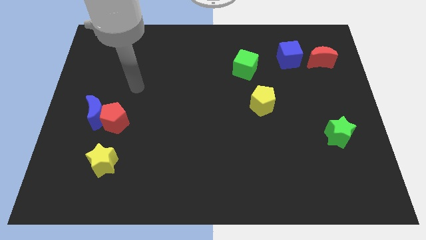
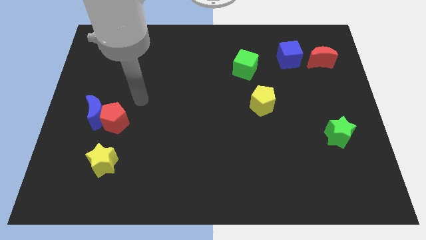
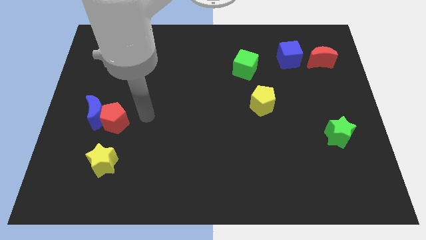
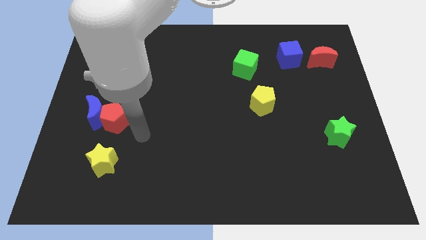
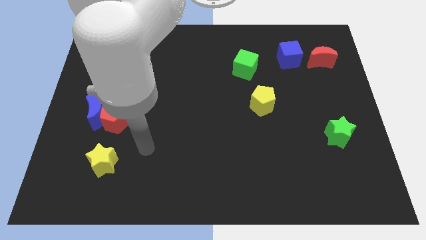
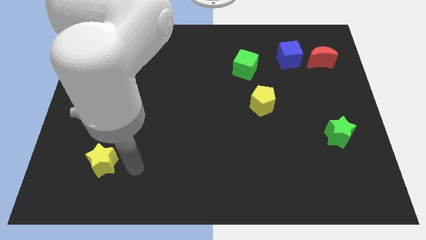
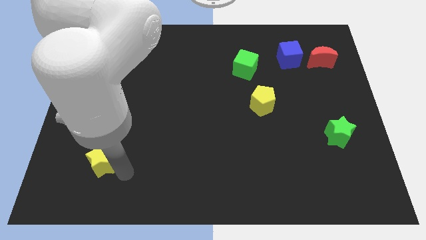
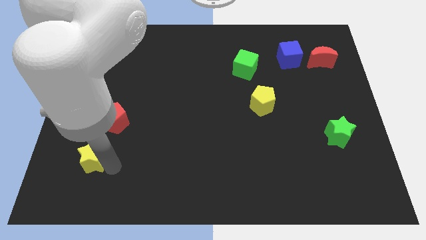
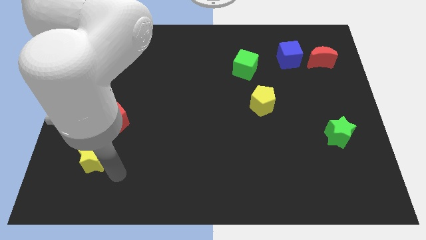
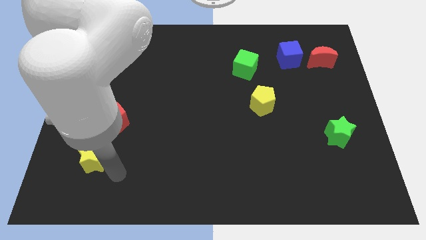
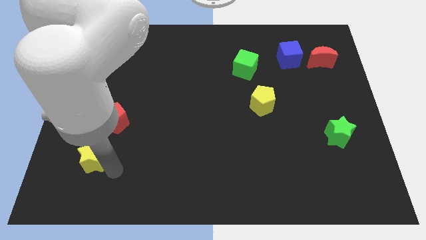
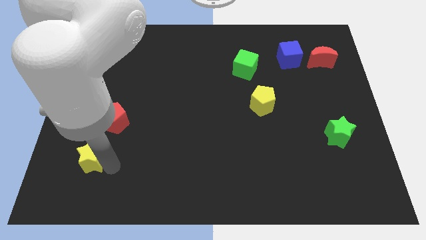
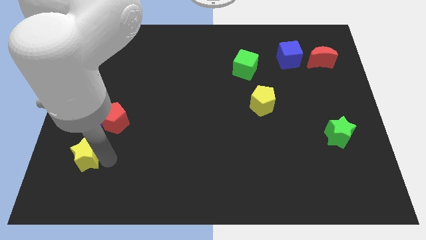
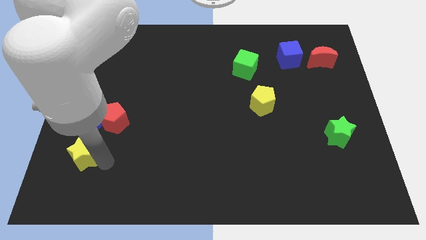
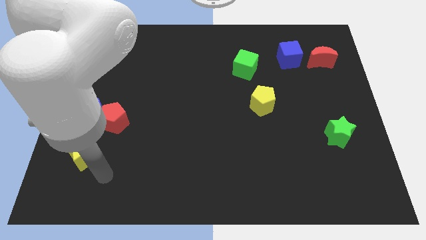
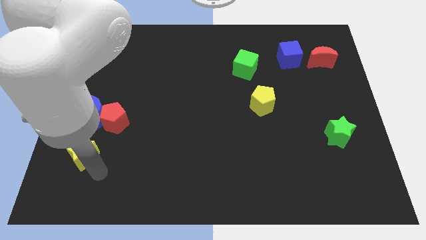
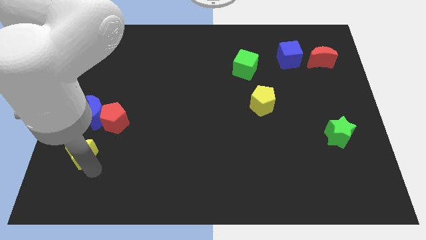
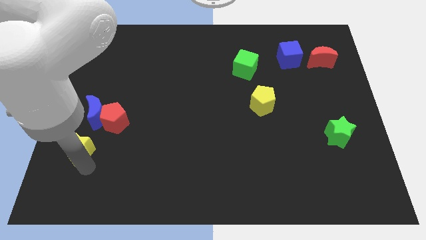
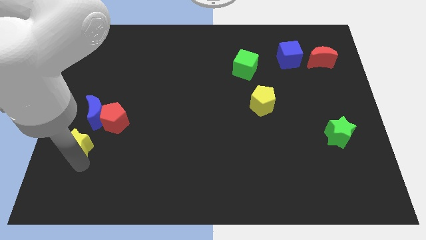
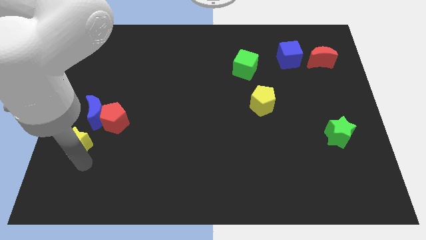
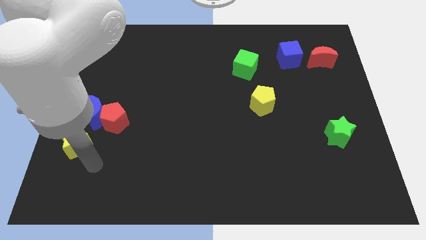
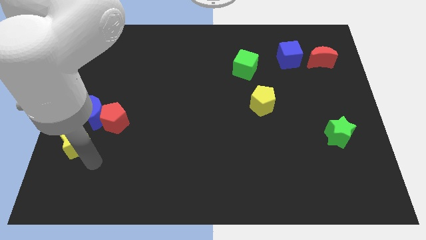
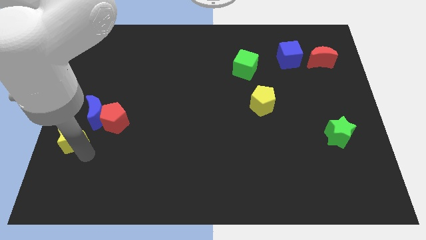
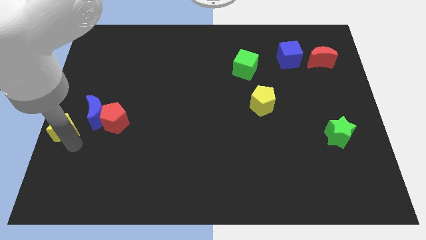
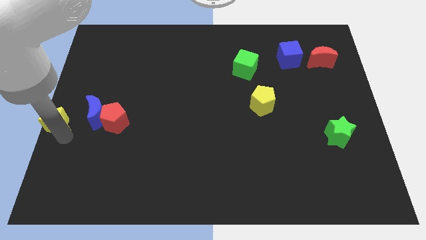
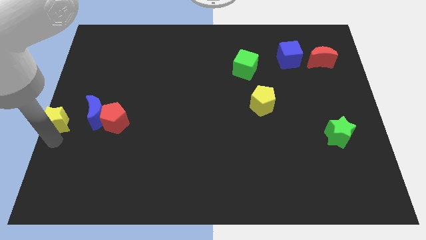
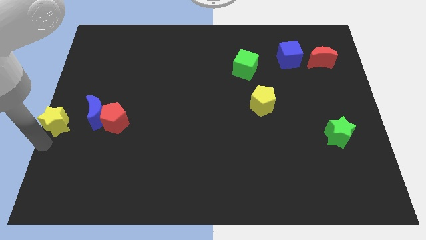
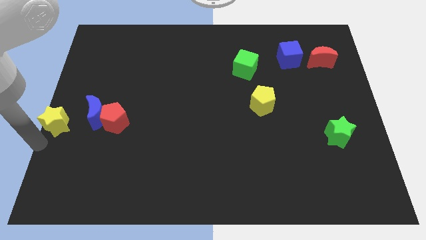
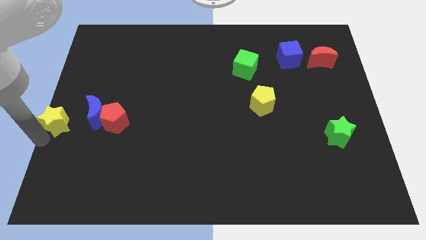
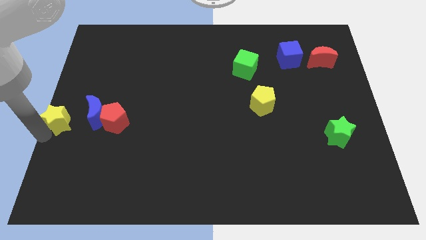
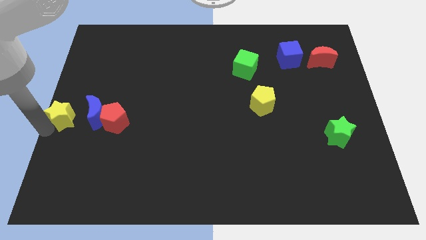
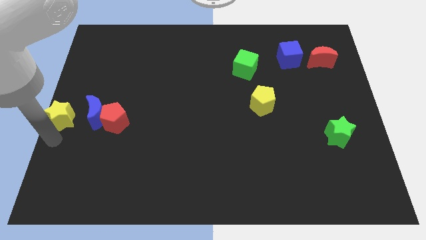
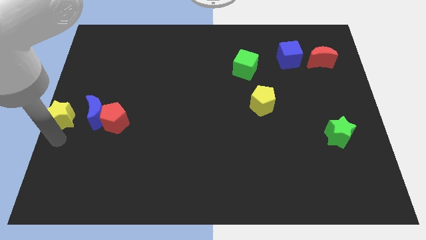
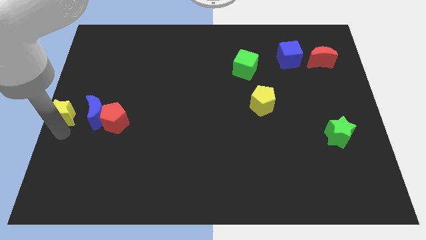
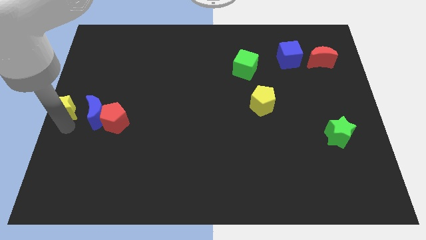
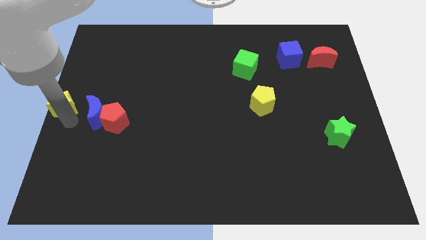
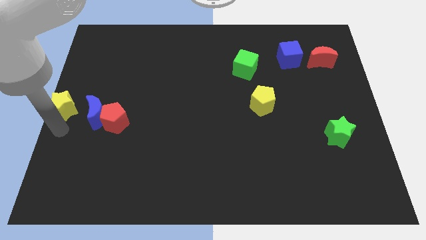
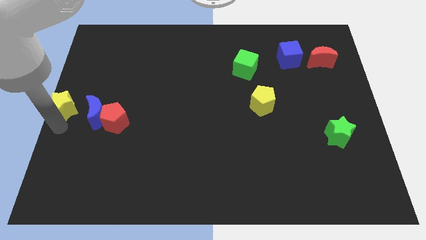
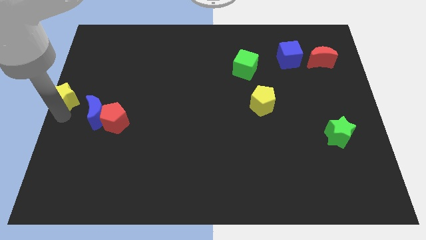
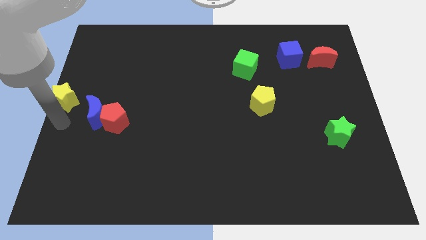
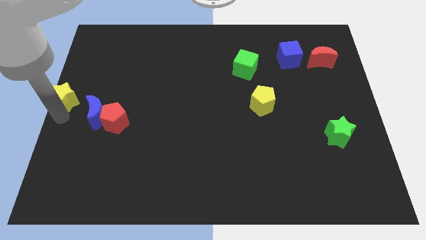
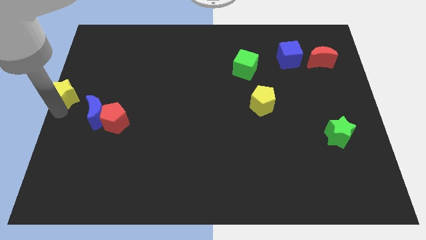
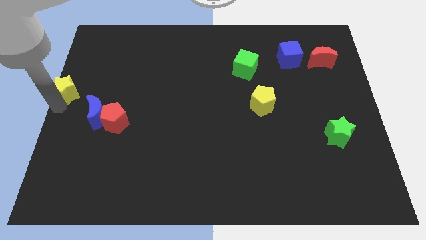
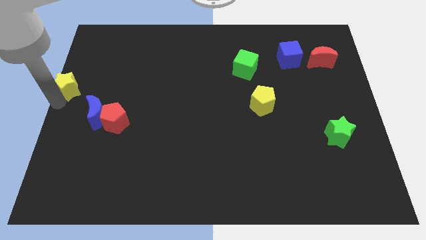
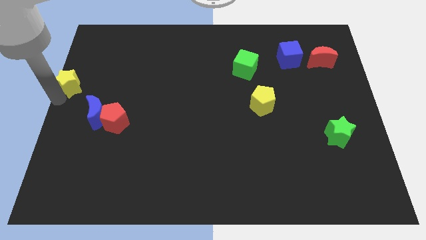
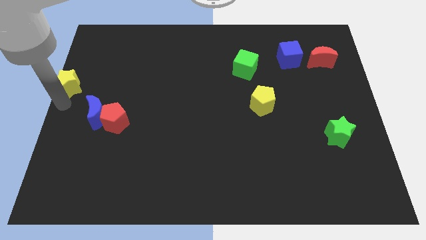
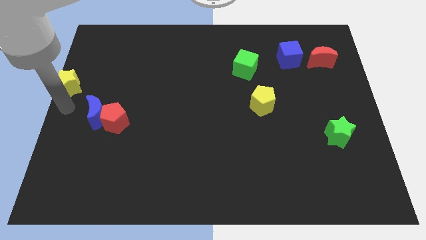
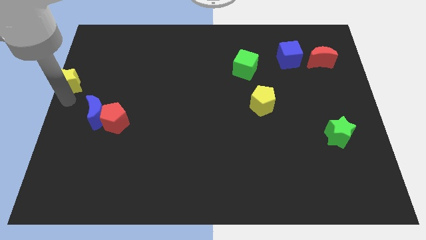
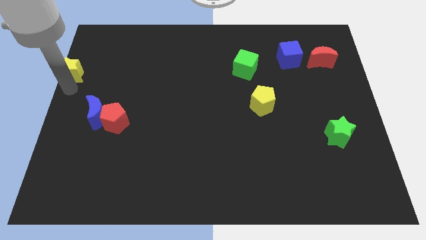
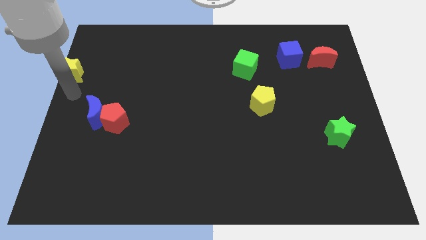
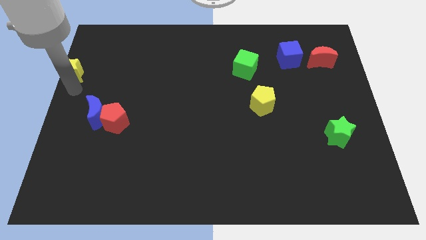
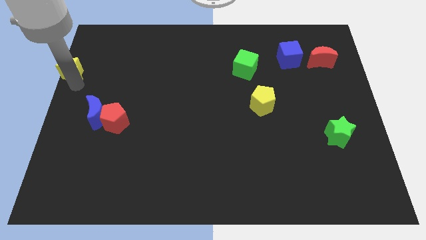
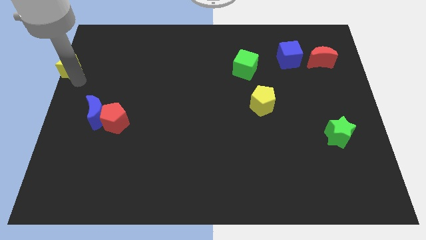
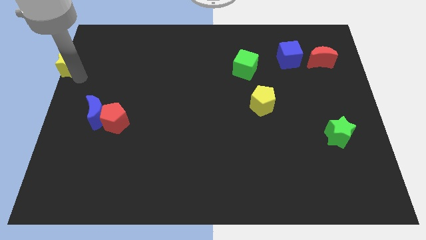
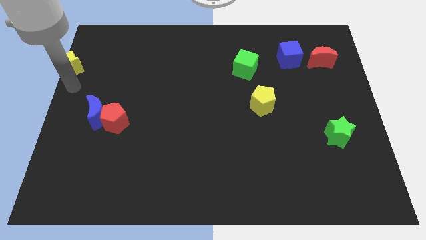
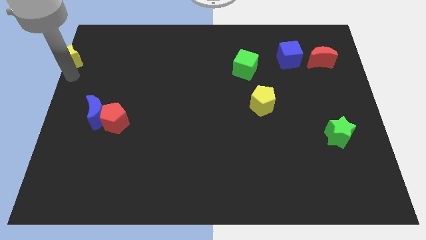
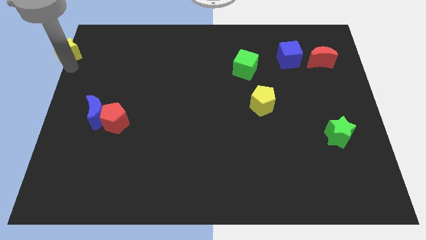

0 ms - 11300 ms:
put the yellow star to the top left of the board

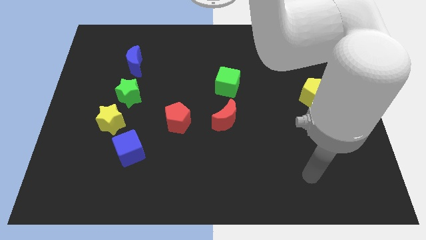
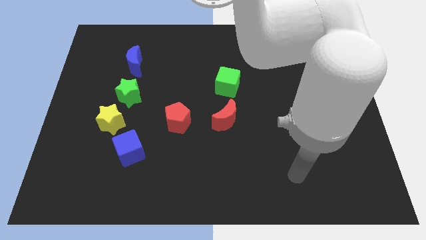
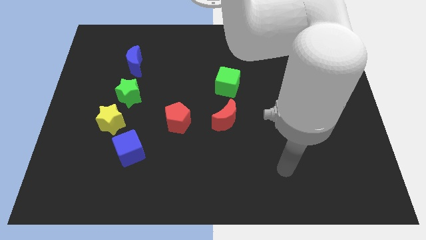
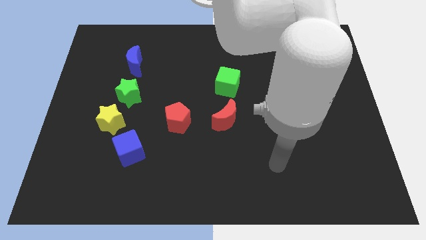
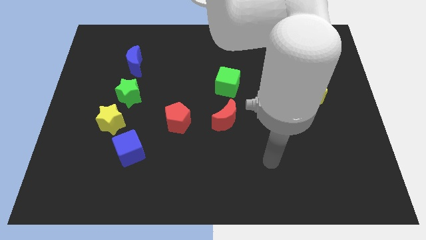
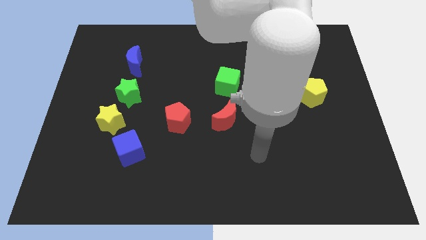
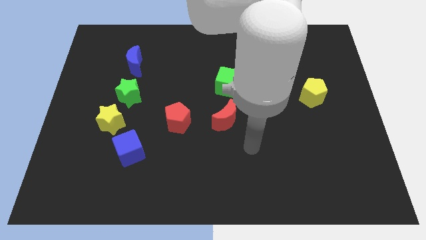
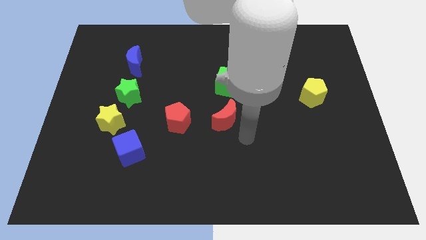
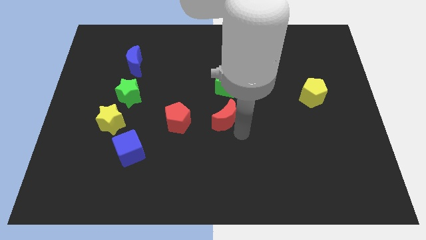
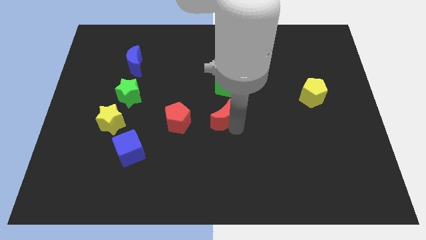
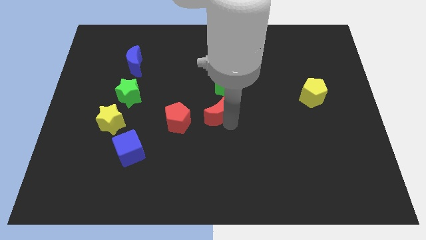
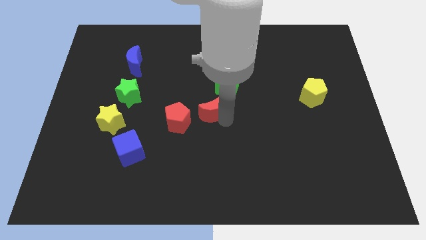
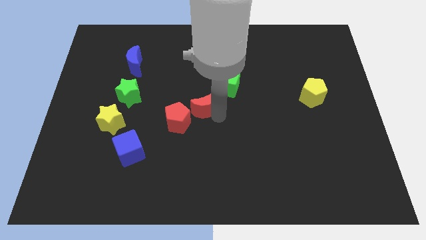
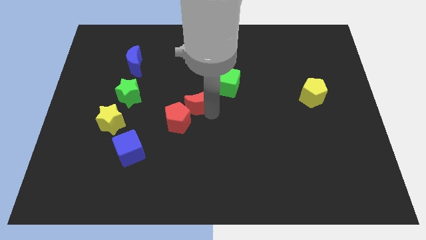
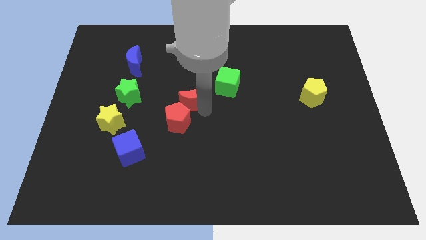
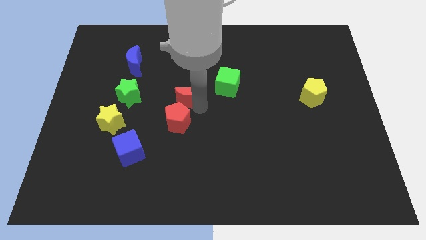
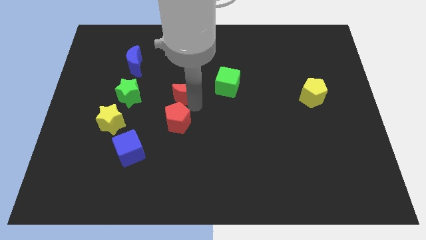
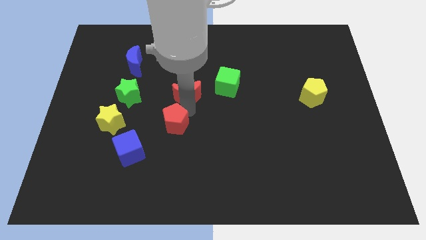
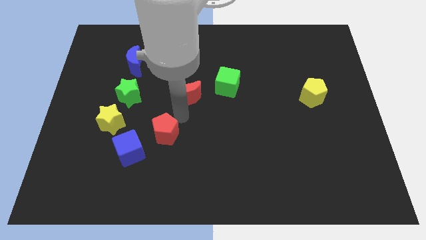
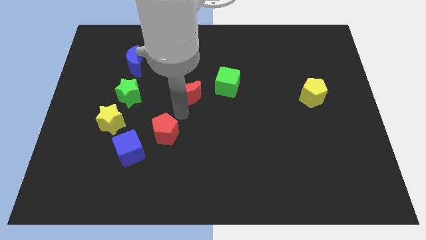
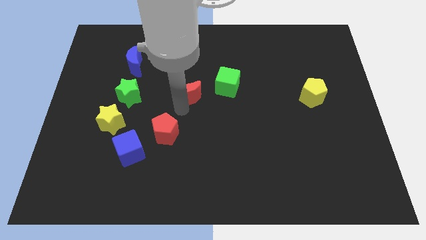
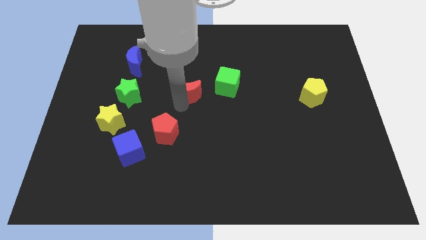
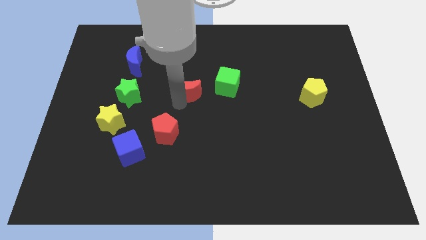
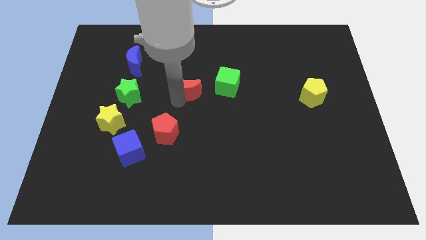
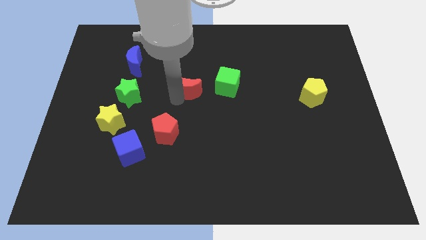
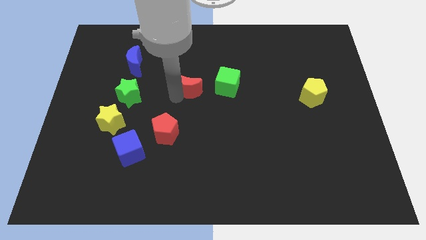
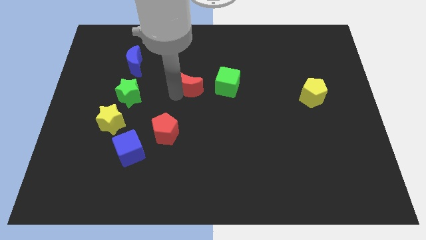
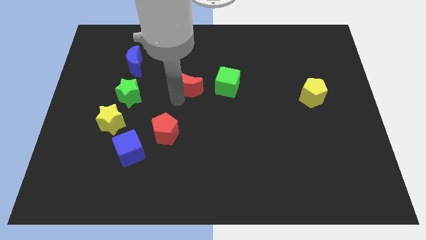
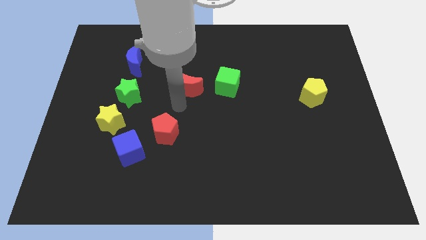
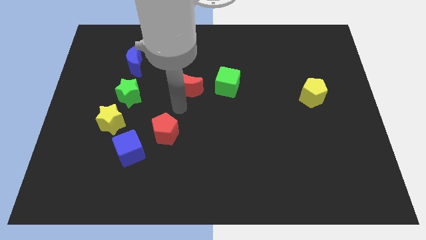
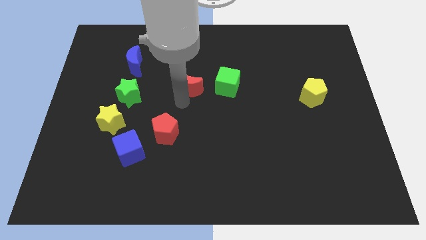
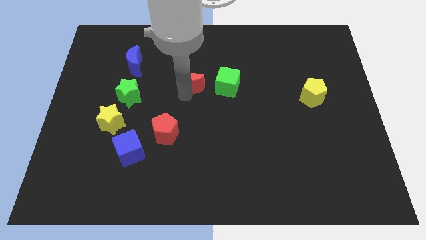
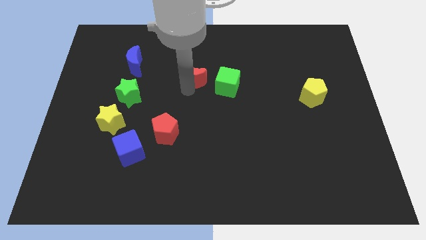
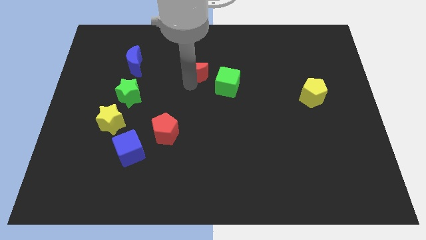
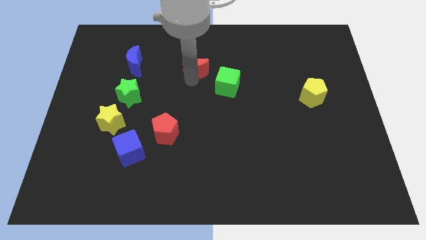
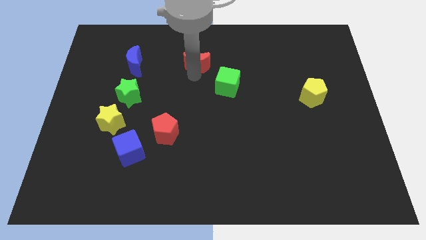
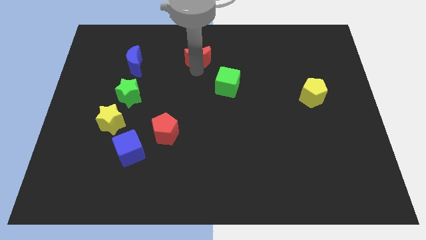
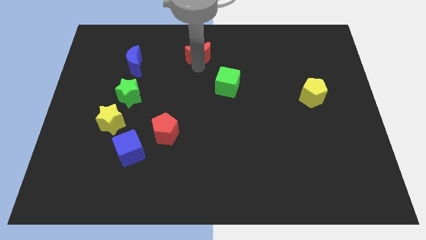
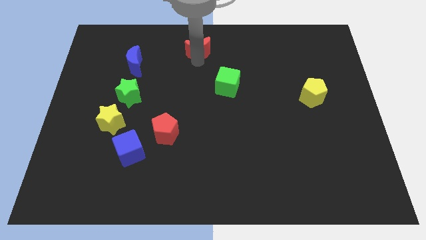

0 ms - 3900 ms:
move the red moon to the top side
